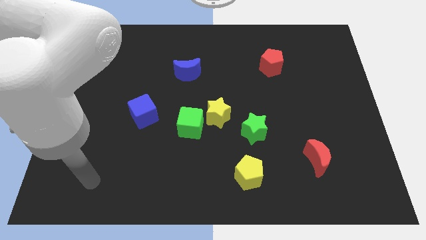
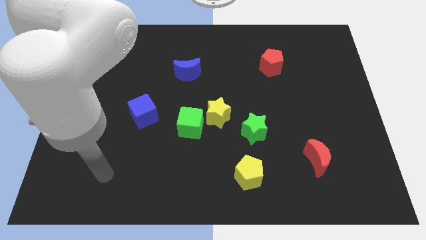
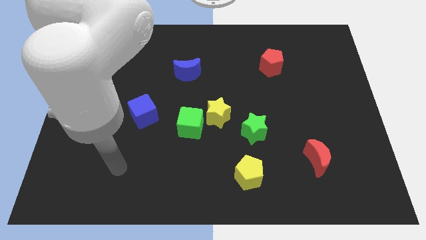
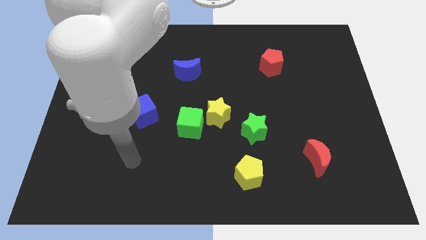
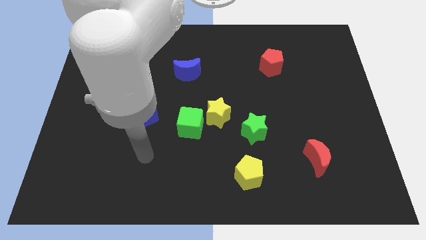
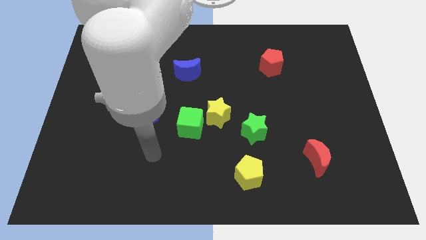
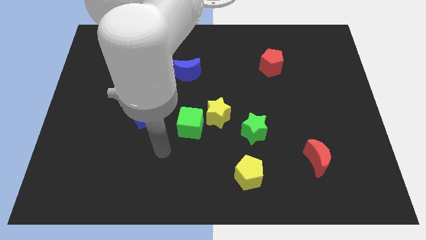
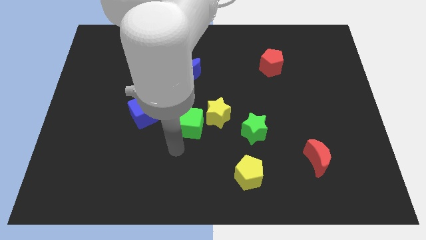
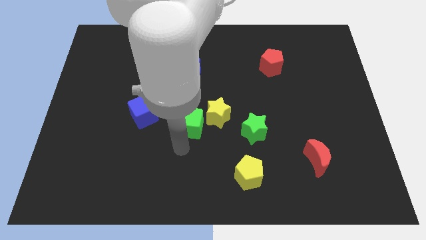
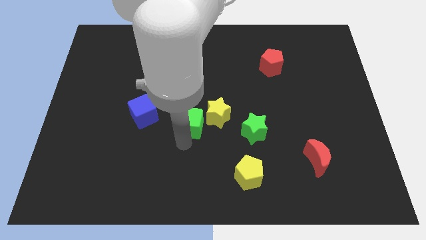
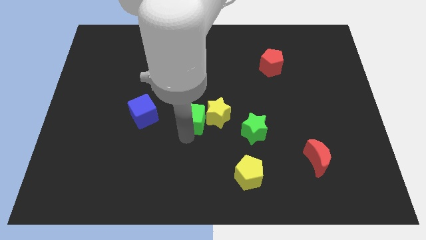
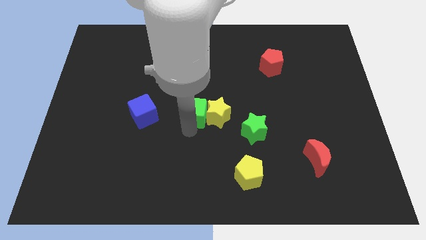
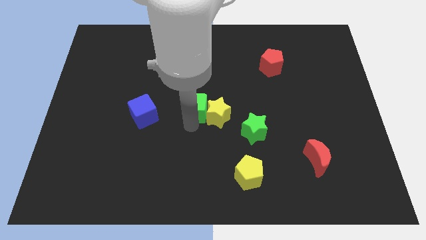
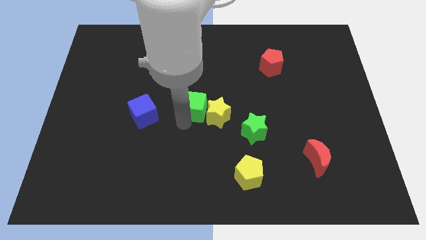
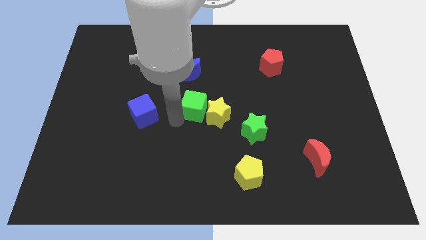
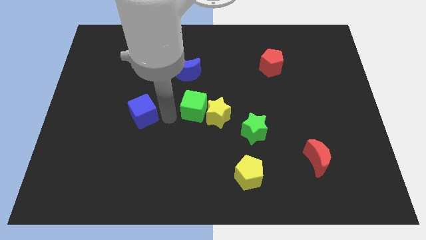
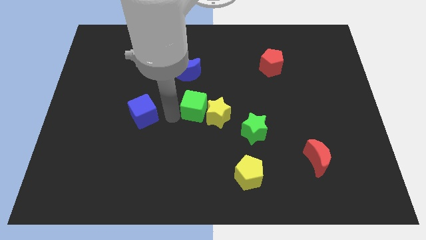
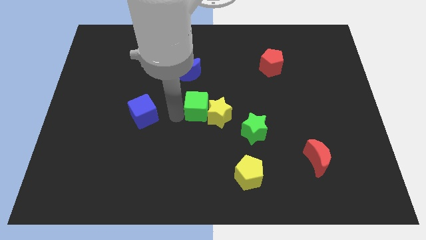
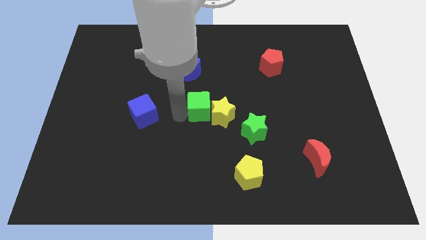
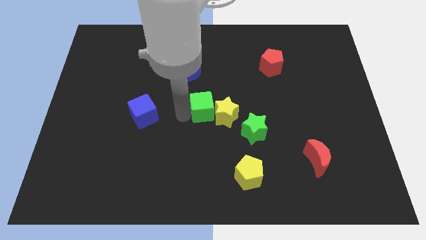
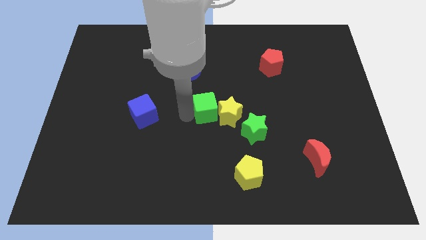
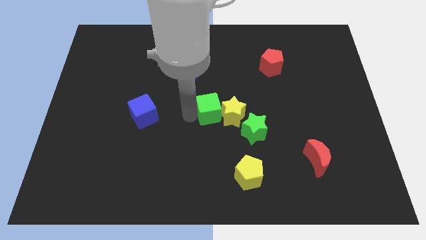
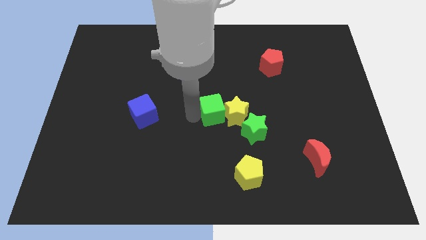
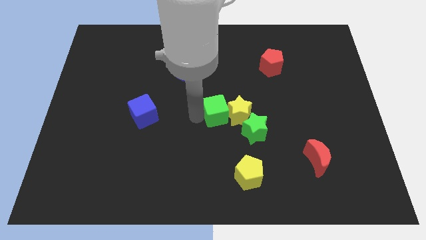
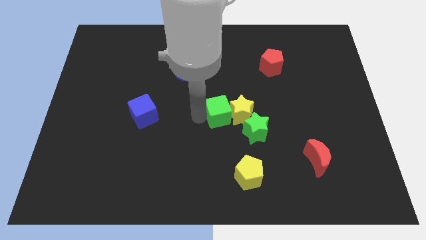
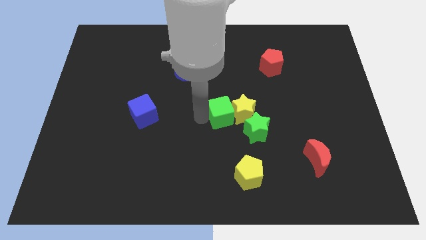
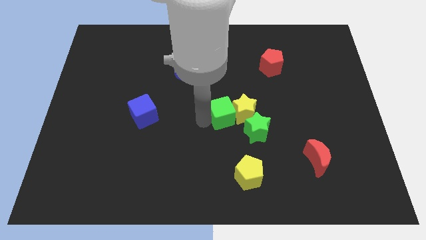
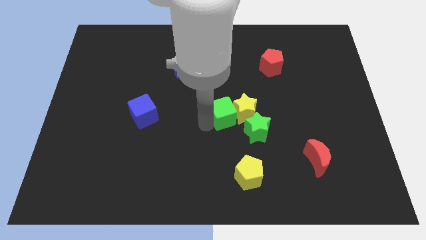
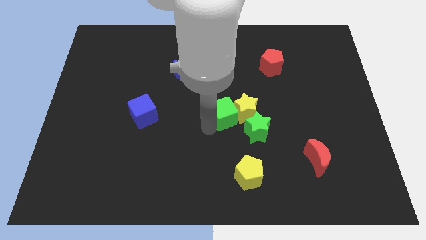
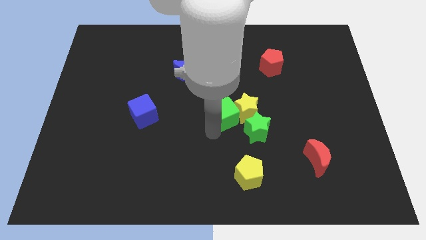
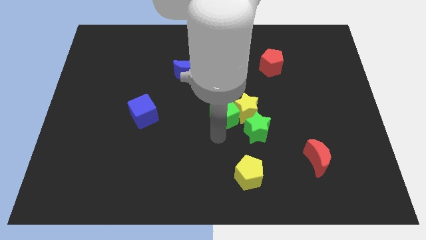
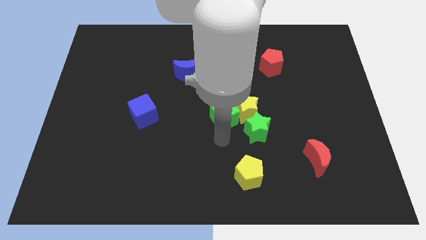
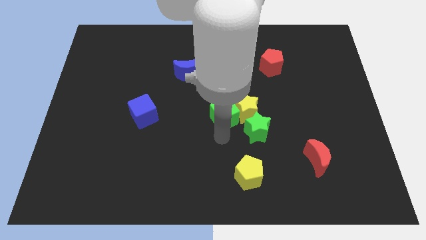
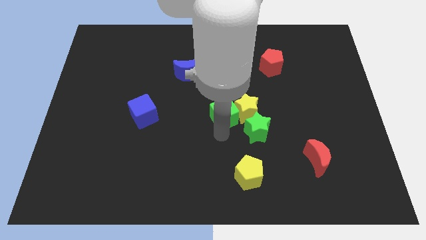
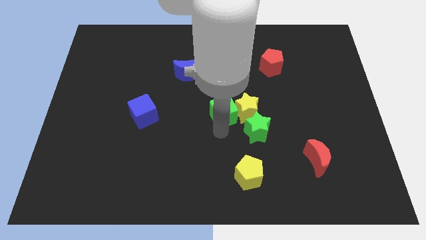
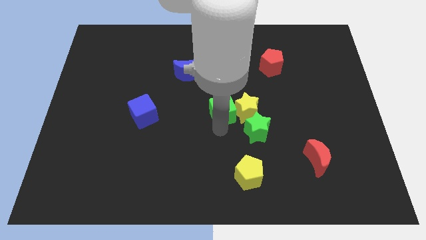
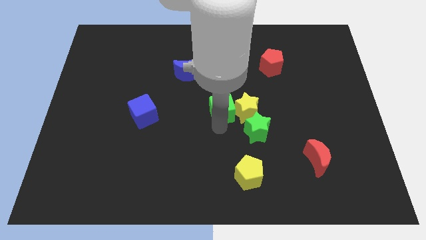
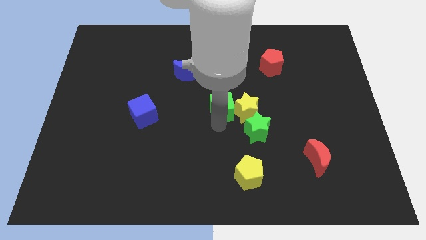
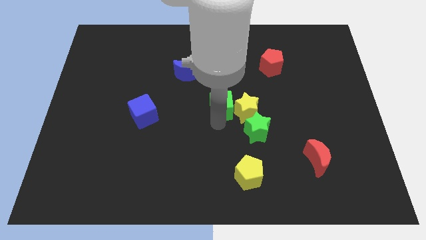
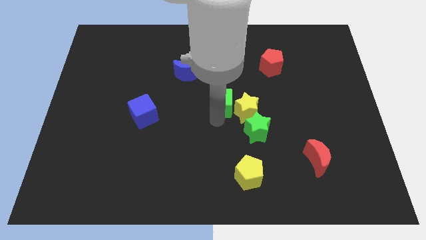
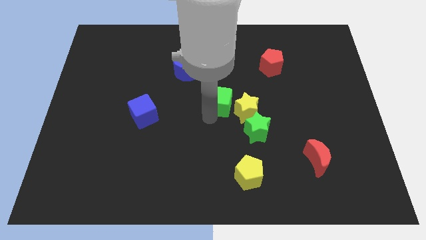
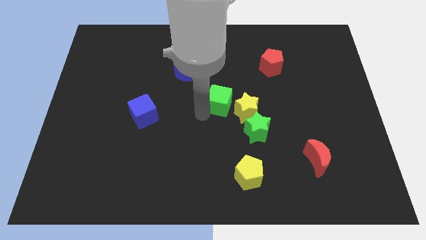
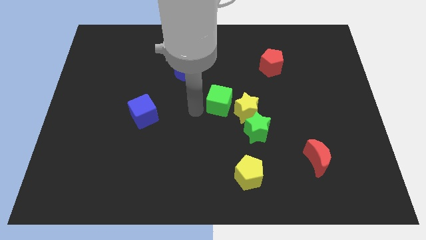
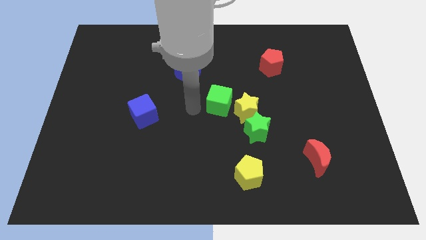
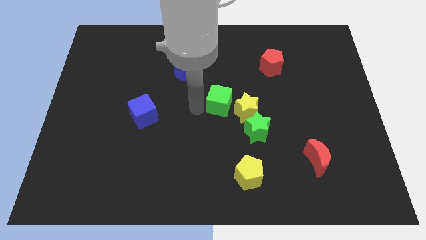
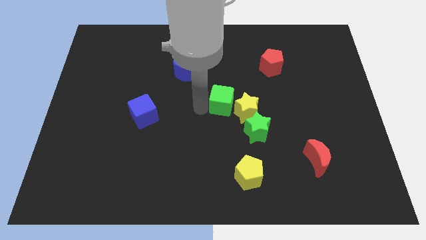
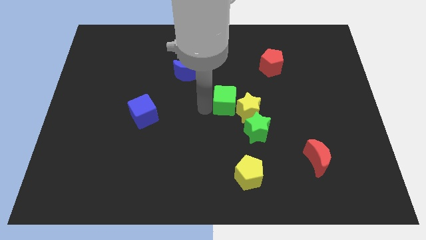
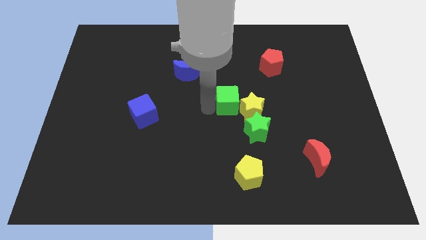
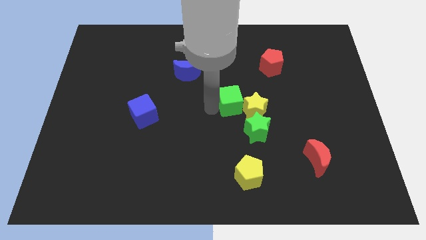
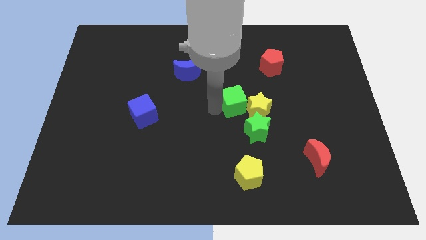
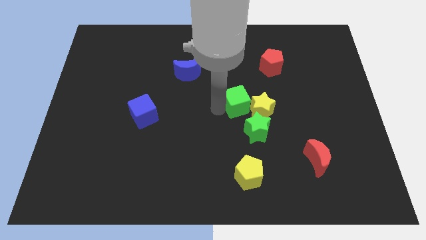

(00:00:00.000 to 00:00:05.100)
put the green cube to the top side of the green star

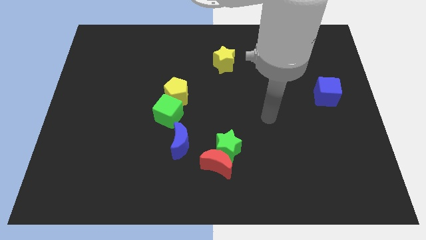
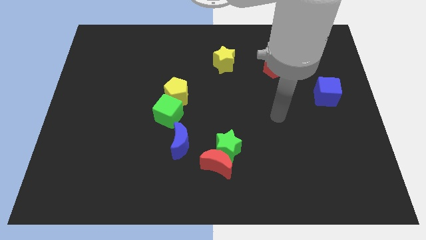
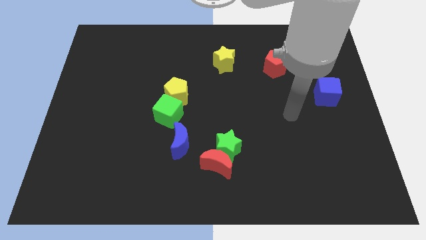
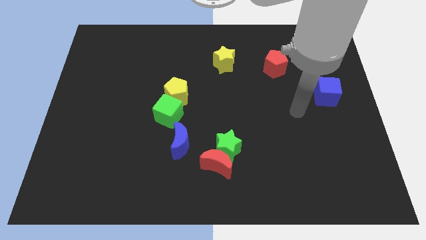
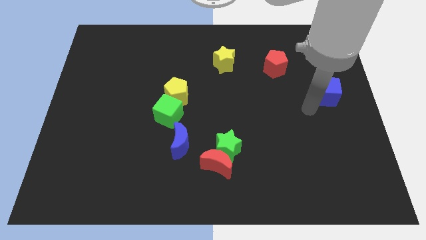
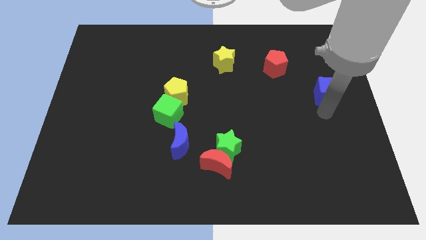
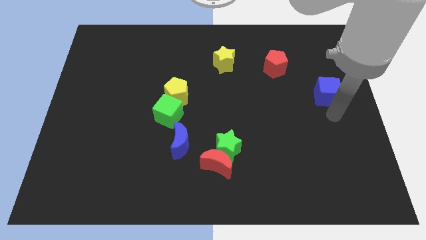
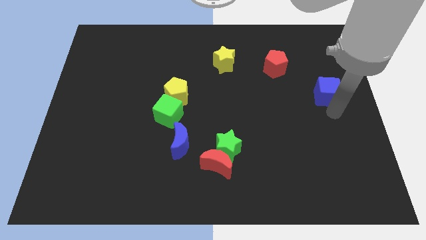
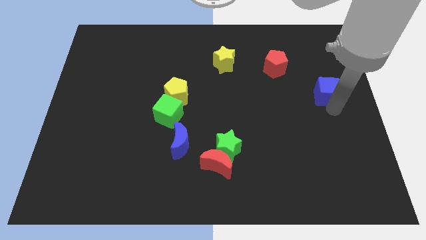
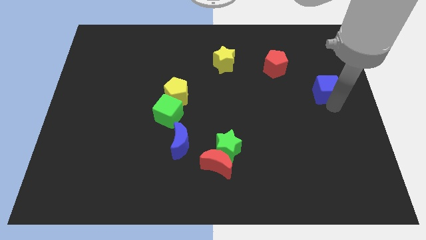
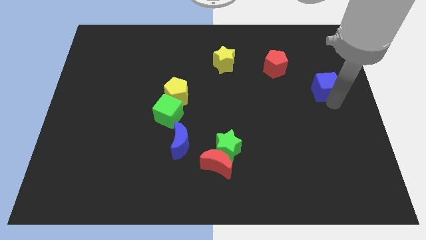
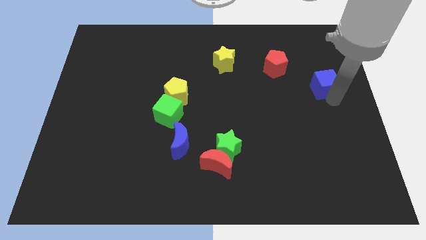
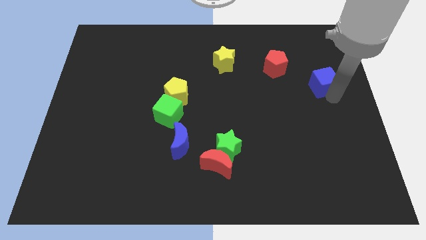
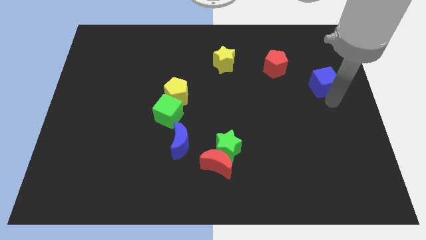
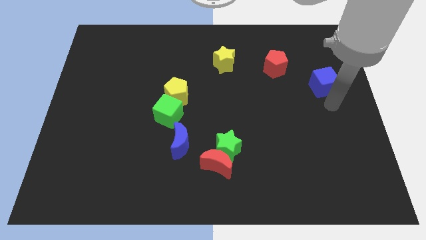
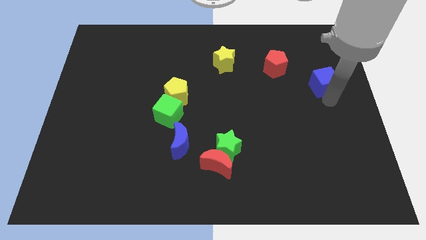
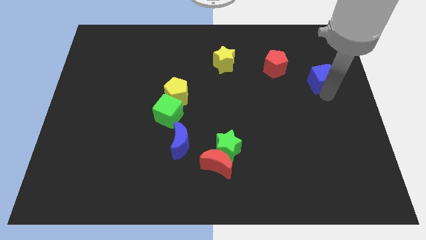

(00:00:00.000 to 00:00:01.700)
slide the blue cube just right of the red pentagon
